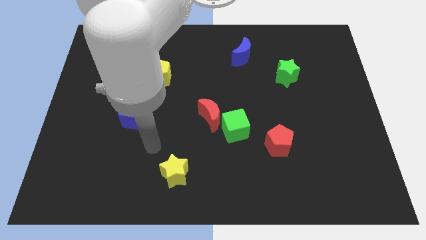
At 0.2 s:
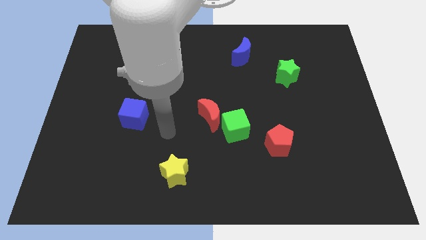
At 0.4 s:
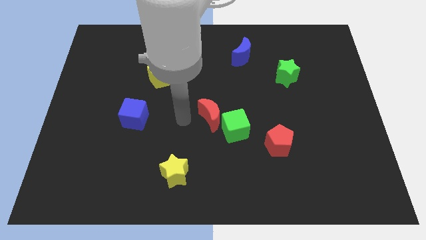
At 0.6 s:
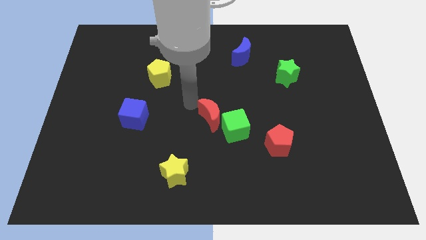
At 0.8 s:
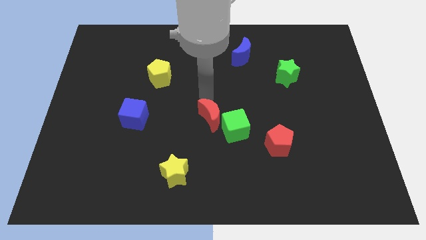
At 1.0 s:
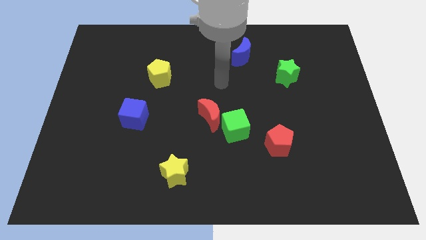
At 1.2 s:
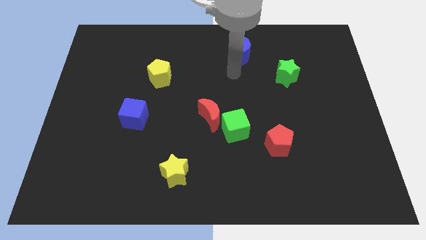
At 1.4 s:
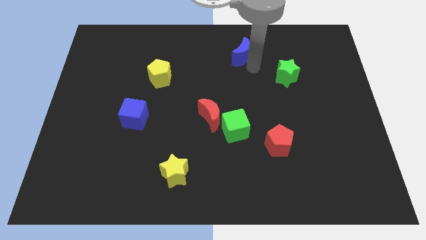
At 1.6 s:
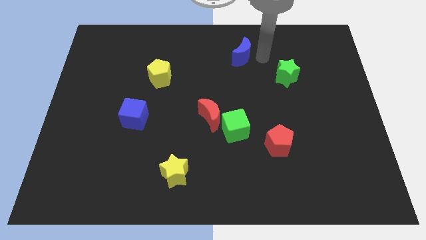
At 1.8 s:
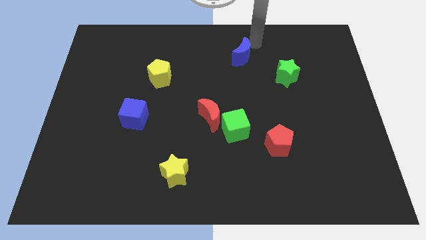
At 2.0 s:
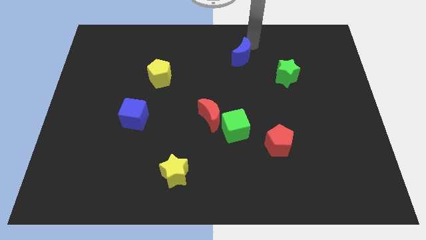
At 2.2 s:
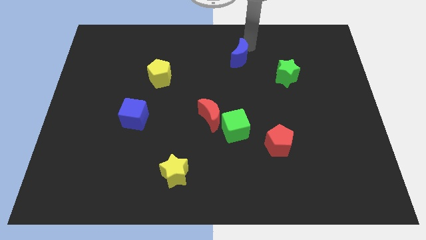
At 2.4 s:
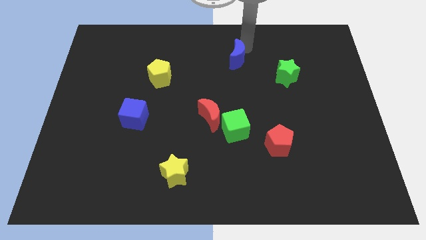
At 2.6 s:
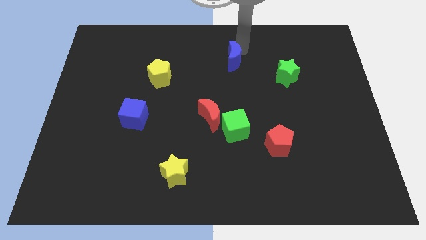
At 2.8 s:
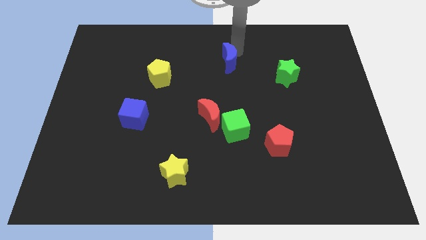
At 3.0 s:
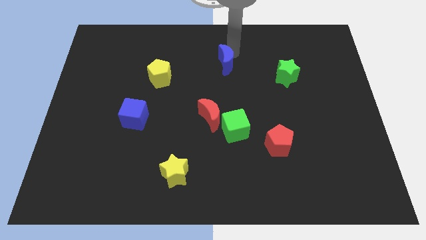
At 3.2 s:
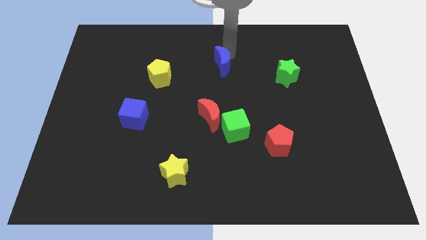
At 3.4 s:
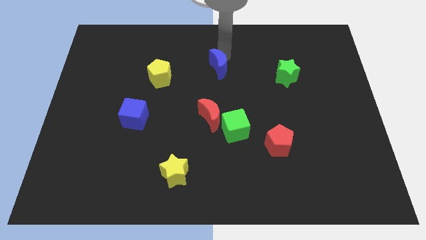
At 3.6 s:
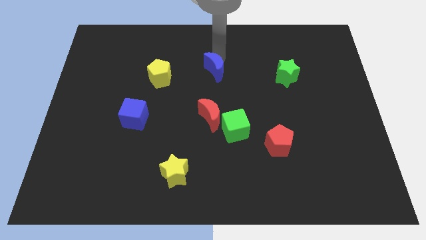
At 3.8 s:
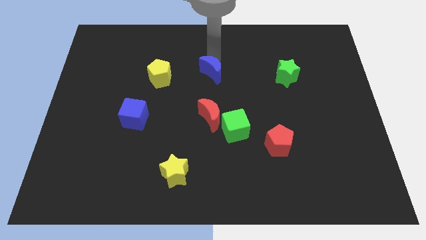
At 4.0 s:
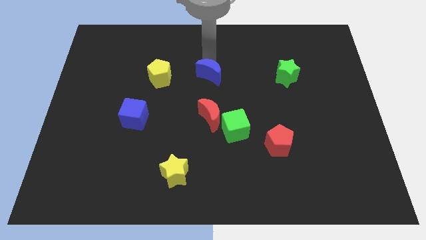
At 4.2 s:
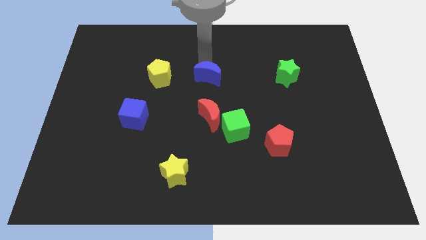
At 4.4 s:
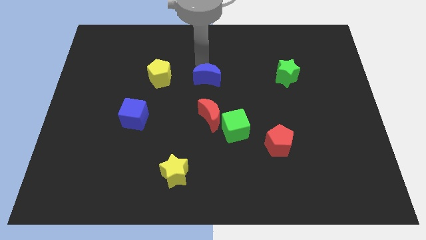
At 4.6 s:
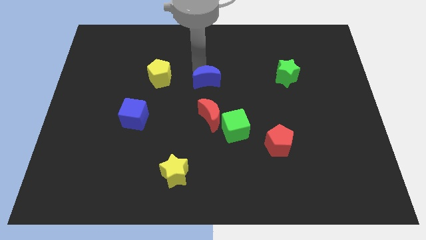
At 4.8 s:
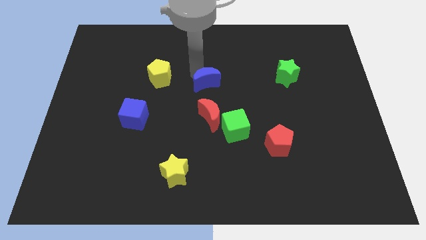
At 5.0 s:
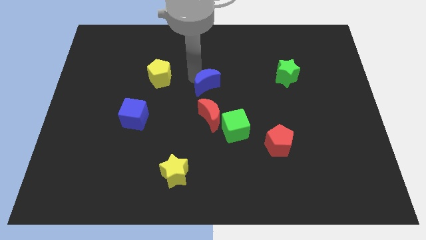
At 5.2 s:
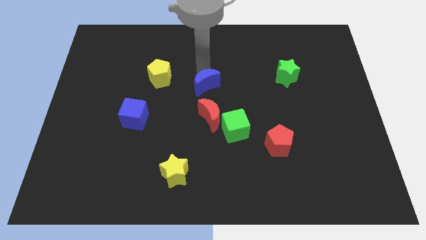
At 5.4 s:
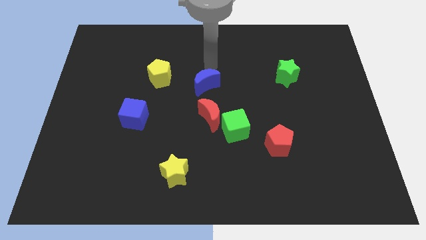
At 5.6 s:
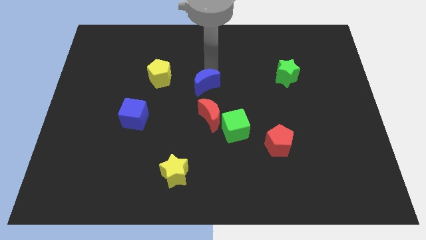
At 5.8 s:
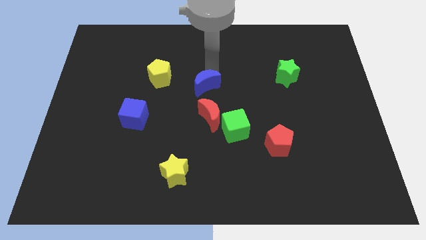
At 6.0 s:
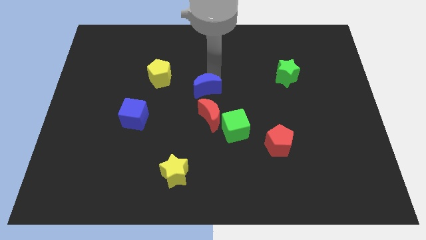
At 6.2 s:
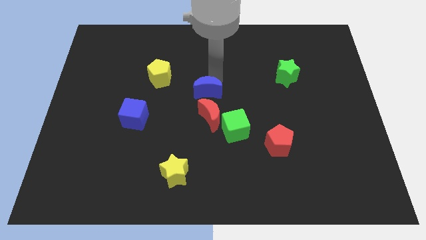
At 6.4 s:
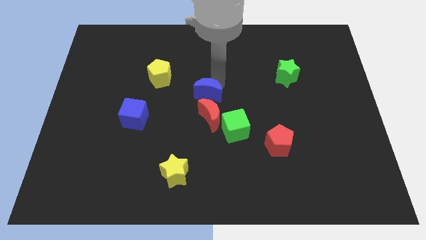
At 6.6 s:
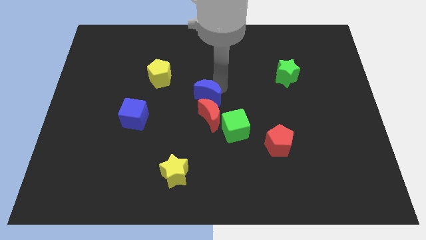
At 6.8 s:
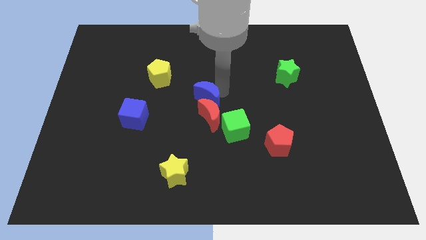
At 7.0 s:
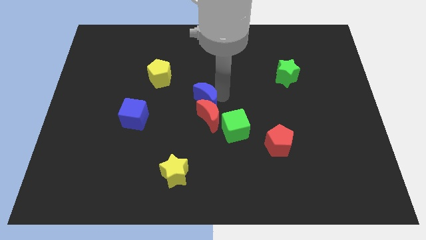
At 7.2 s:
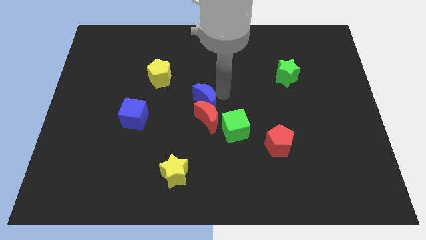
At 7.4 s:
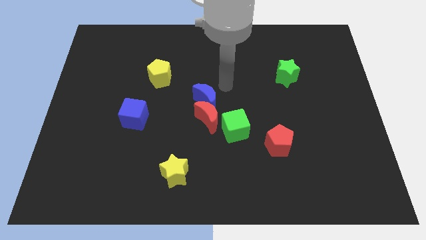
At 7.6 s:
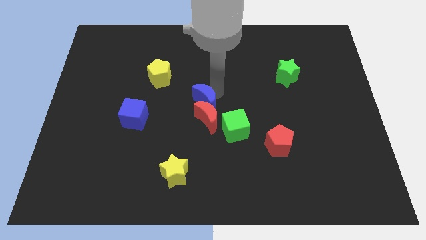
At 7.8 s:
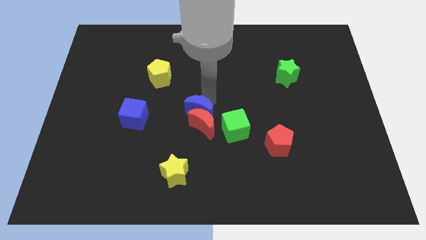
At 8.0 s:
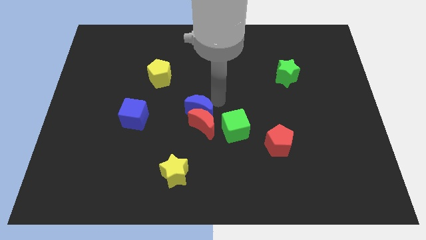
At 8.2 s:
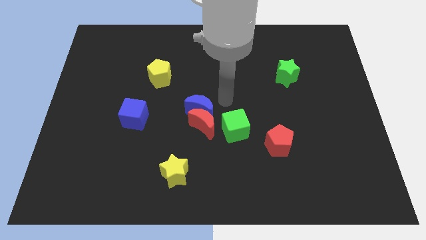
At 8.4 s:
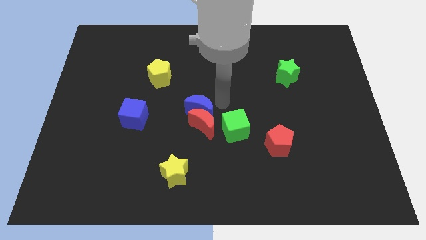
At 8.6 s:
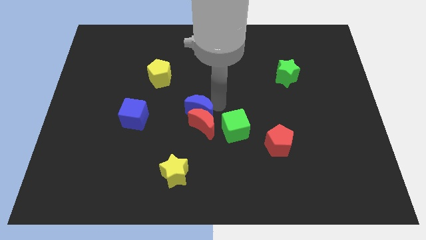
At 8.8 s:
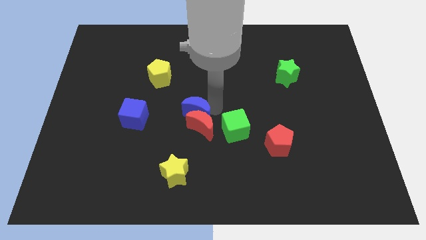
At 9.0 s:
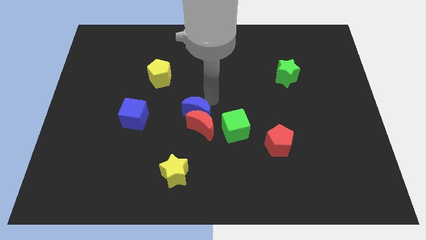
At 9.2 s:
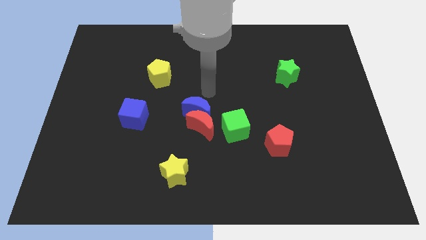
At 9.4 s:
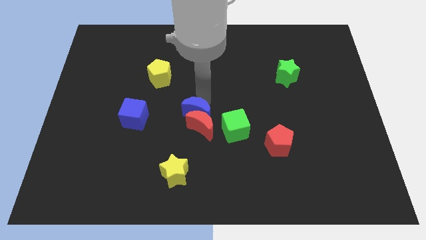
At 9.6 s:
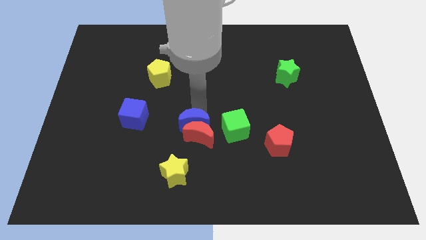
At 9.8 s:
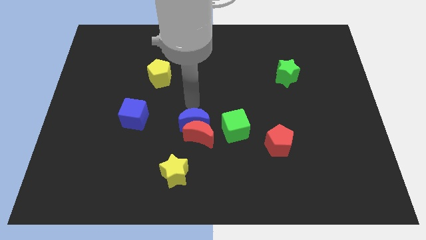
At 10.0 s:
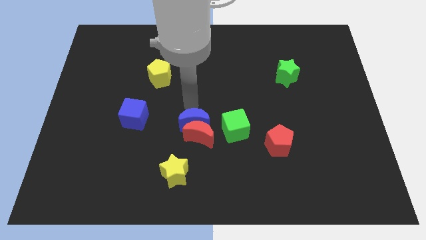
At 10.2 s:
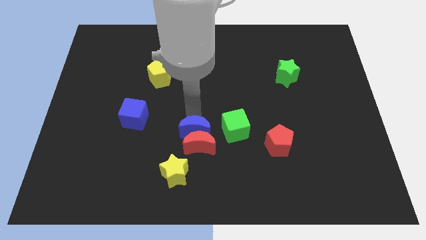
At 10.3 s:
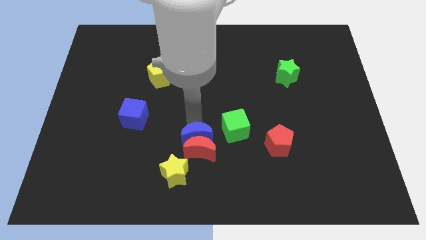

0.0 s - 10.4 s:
slide the blue moon to the top right of the yellow star

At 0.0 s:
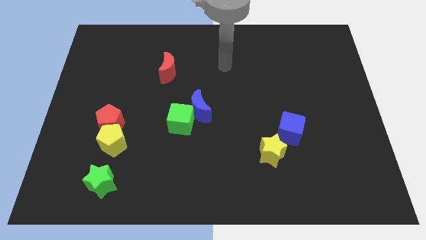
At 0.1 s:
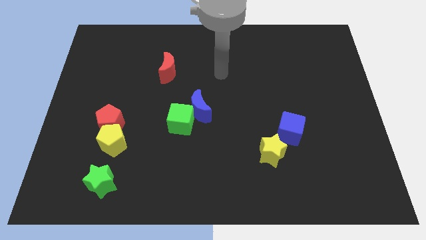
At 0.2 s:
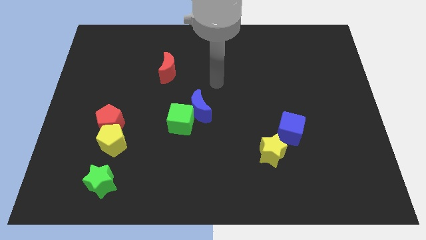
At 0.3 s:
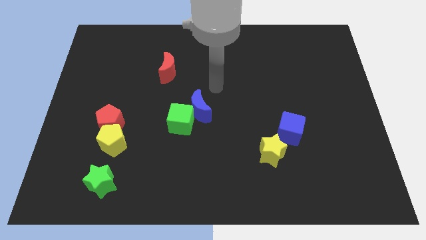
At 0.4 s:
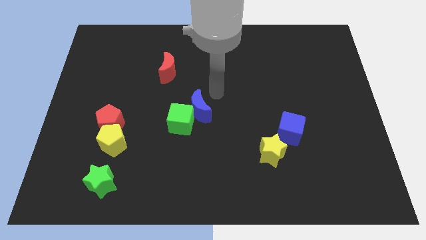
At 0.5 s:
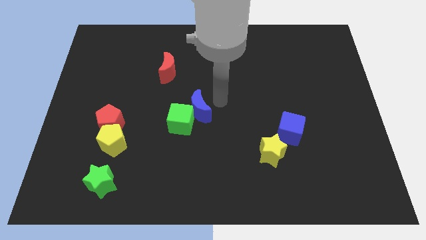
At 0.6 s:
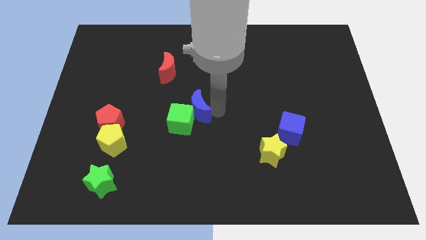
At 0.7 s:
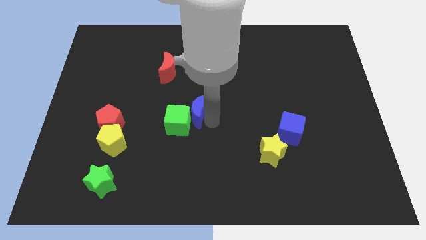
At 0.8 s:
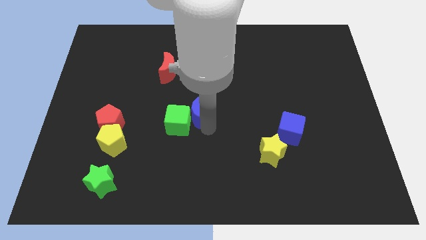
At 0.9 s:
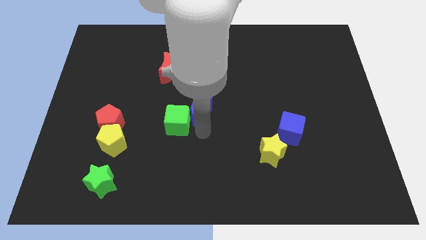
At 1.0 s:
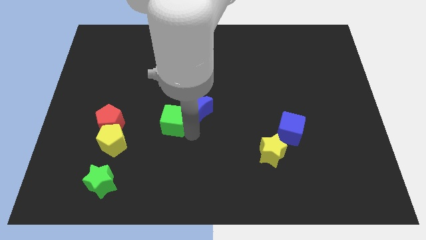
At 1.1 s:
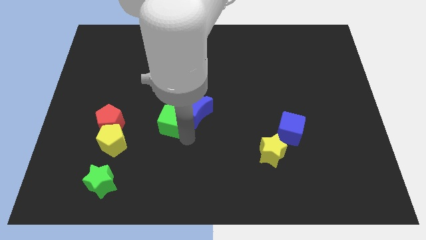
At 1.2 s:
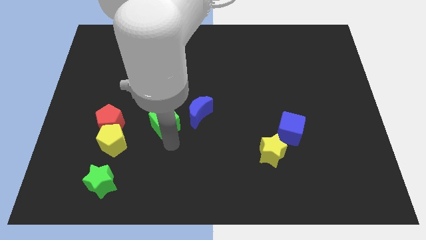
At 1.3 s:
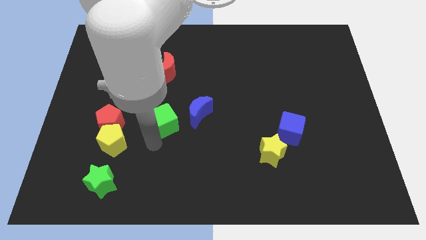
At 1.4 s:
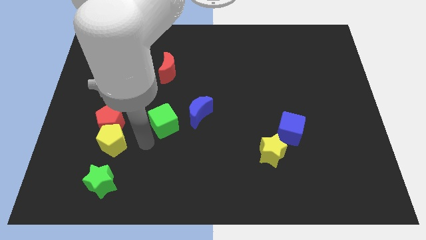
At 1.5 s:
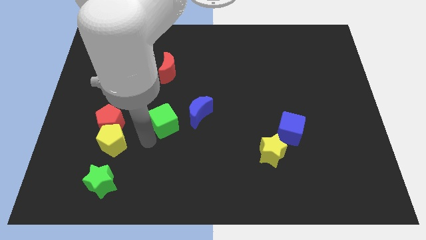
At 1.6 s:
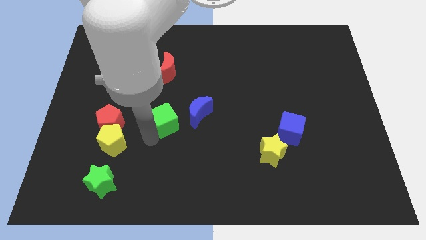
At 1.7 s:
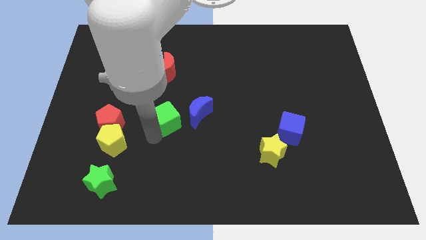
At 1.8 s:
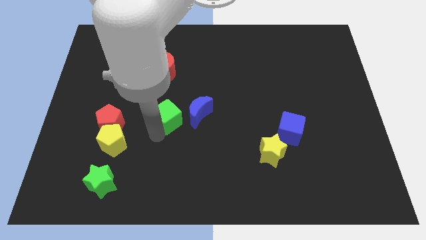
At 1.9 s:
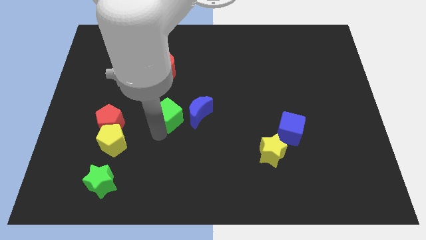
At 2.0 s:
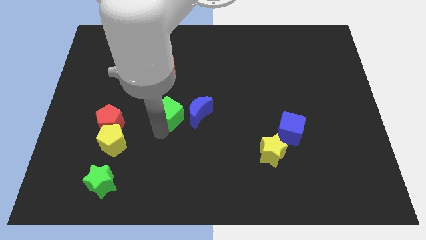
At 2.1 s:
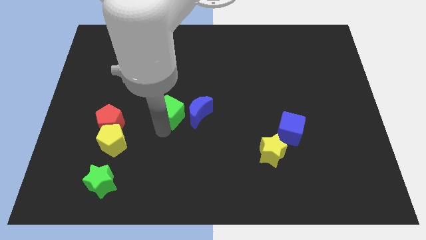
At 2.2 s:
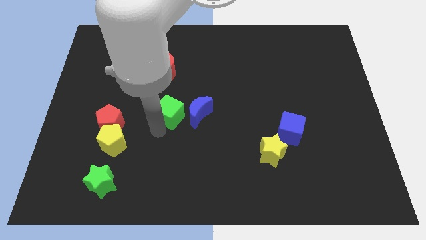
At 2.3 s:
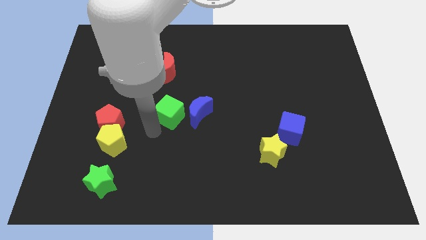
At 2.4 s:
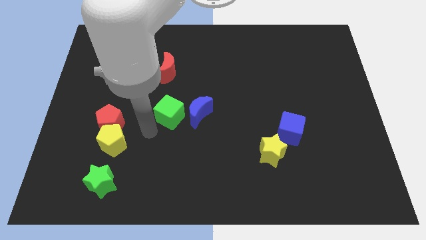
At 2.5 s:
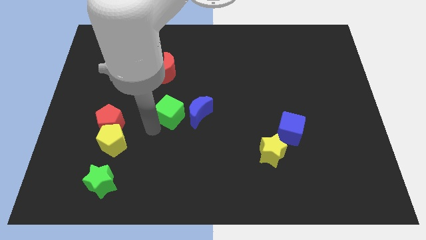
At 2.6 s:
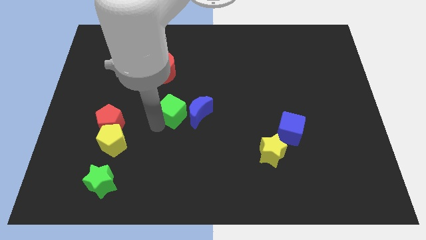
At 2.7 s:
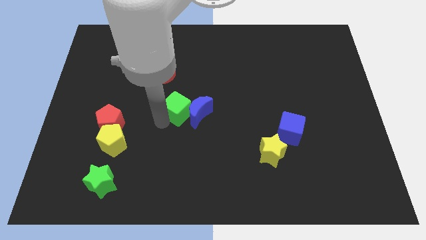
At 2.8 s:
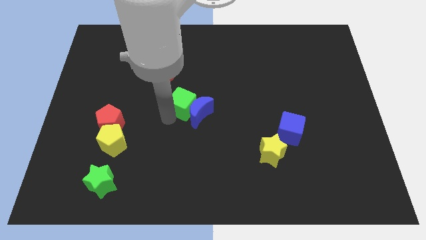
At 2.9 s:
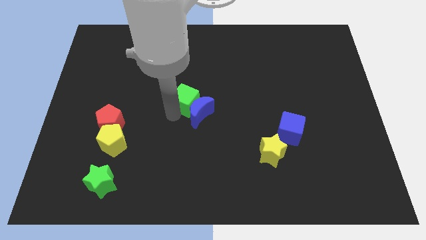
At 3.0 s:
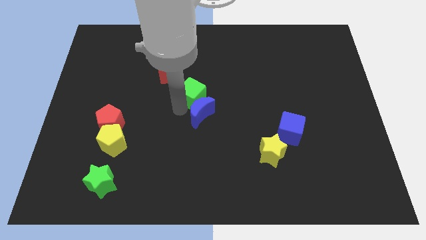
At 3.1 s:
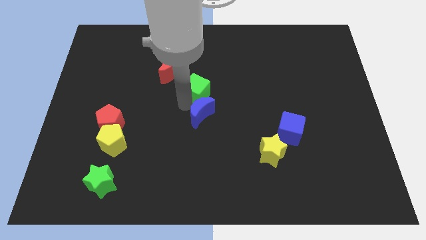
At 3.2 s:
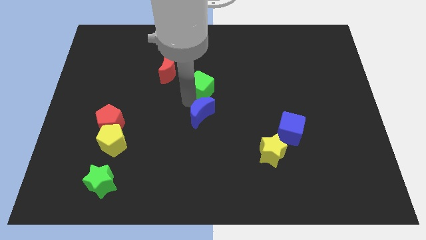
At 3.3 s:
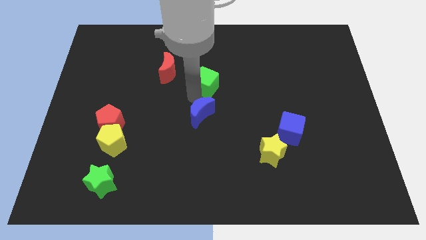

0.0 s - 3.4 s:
slide the green cube to the right side of the red moon
